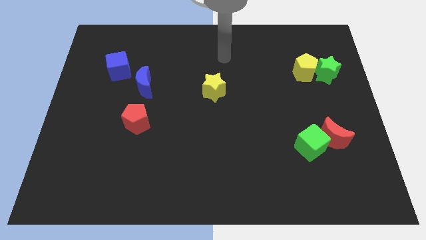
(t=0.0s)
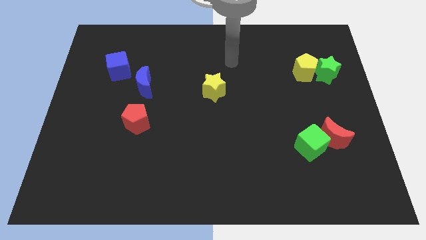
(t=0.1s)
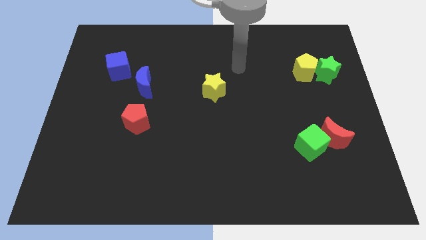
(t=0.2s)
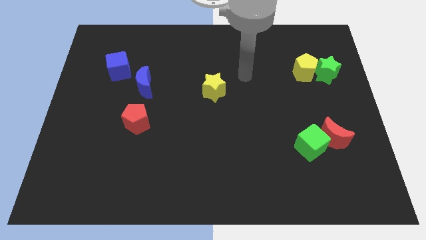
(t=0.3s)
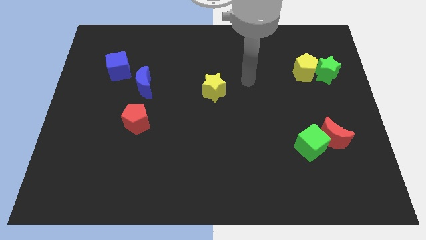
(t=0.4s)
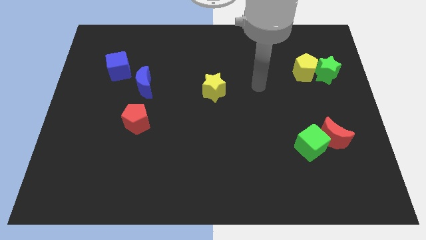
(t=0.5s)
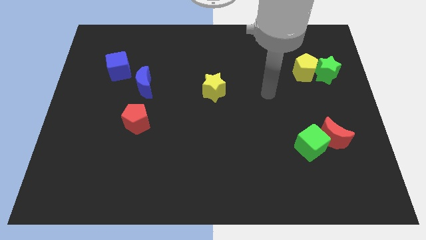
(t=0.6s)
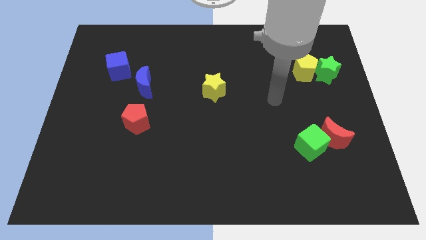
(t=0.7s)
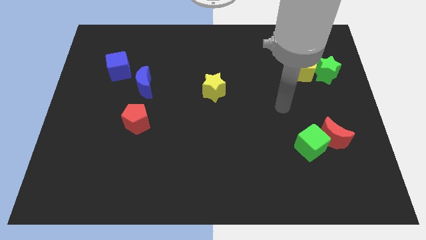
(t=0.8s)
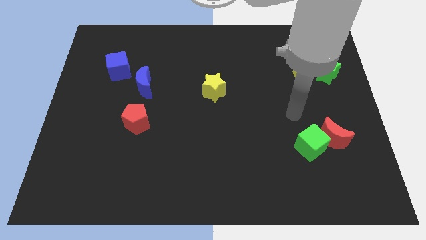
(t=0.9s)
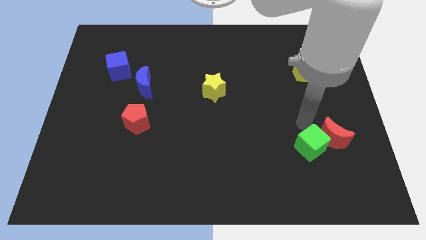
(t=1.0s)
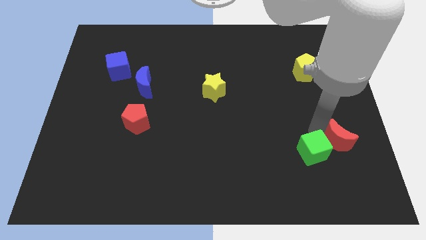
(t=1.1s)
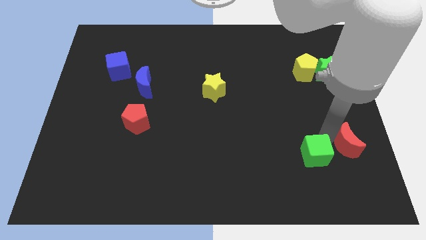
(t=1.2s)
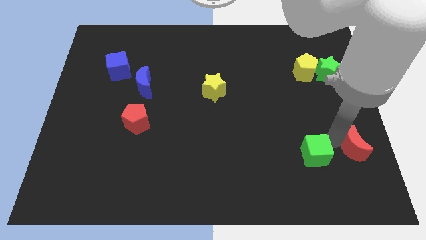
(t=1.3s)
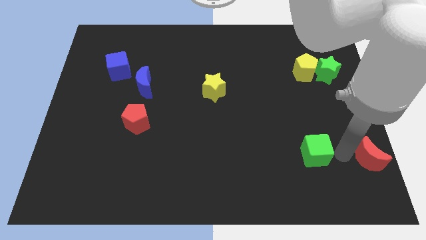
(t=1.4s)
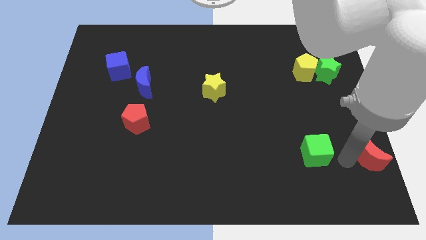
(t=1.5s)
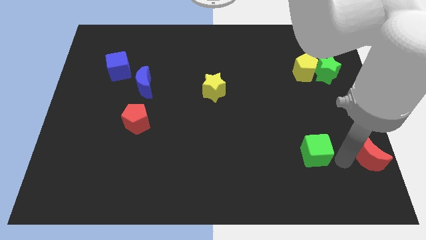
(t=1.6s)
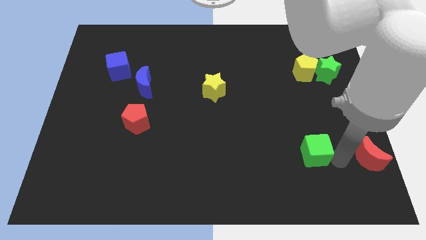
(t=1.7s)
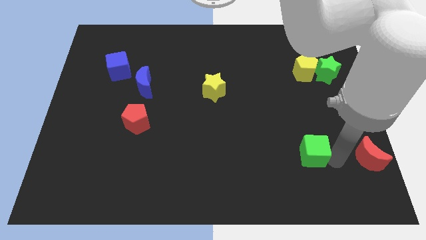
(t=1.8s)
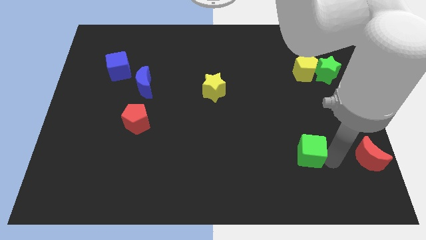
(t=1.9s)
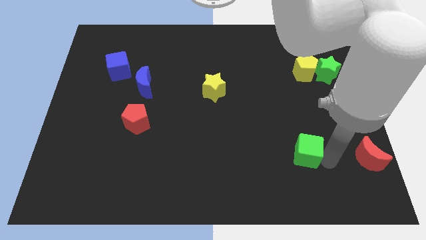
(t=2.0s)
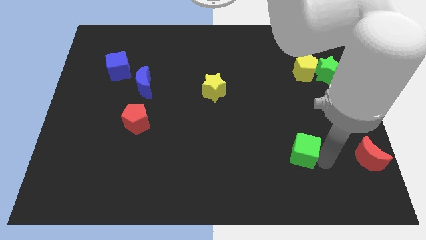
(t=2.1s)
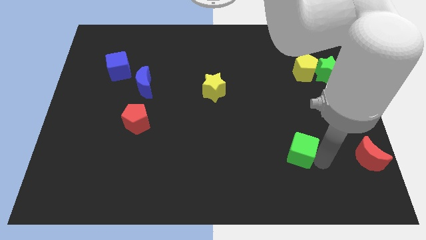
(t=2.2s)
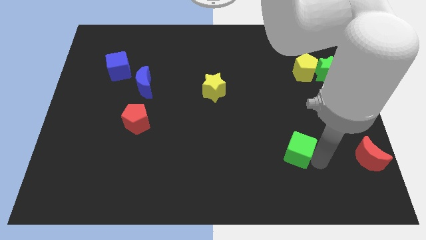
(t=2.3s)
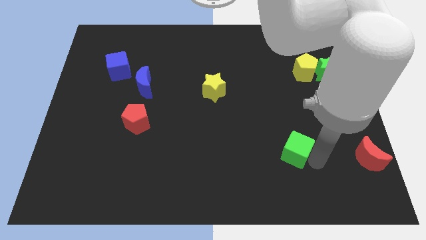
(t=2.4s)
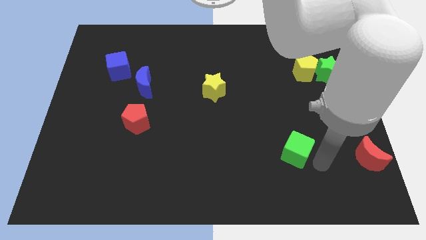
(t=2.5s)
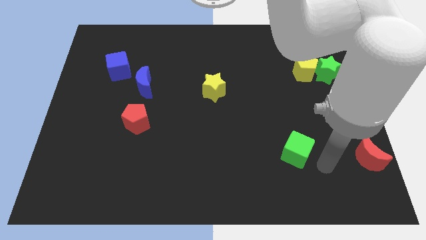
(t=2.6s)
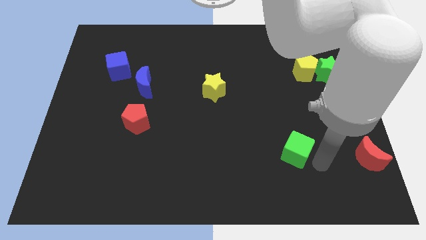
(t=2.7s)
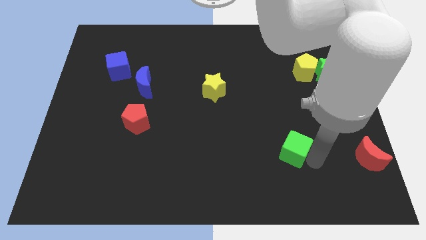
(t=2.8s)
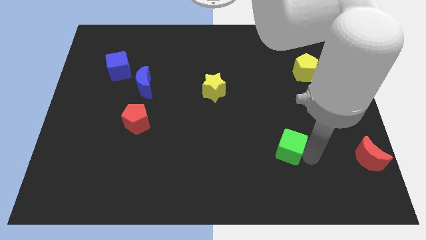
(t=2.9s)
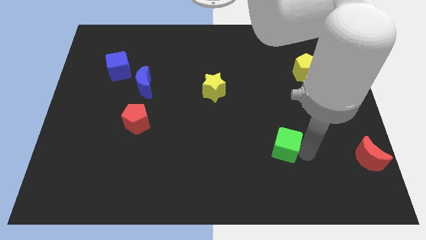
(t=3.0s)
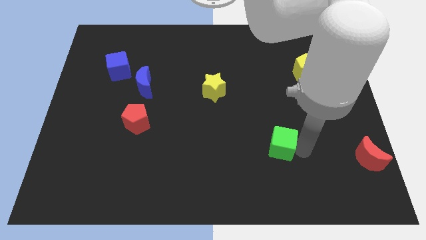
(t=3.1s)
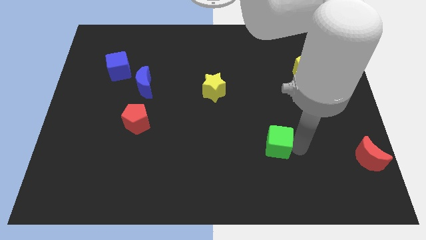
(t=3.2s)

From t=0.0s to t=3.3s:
slightly slide the green cube left

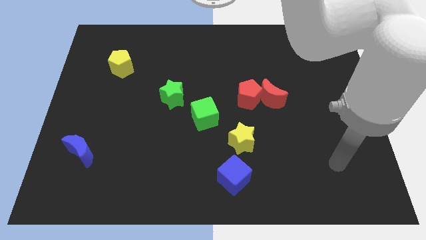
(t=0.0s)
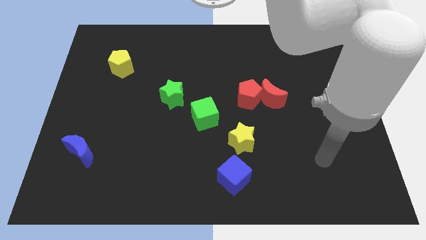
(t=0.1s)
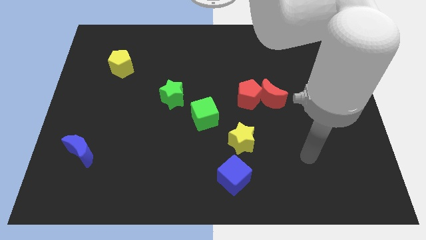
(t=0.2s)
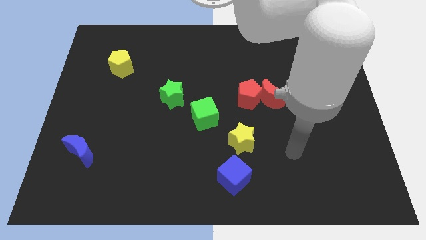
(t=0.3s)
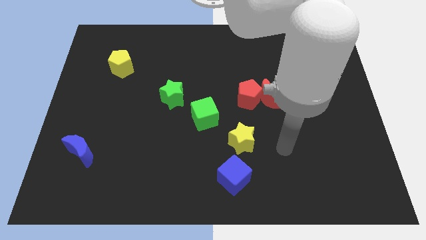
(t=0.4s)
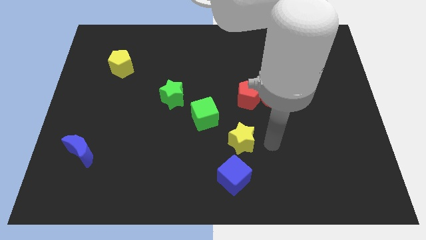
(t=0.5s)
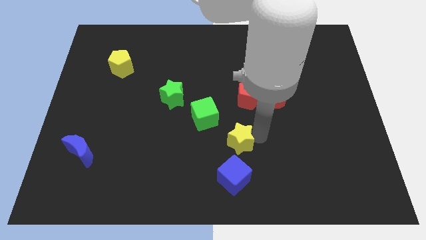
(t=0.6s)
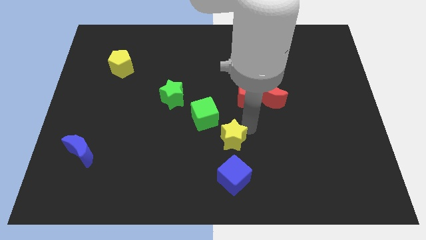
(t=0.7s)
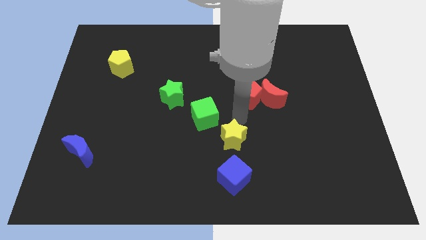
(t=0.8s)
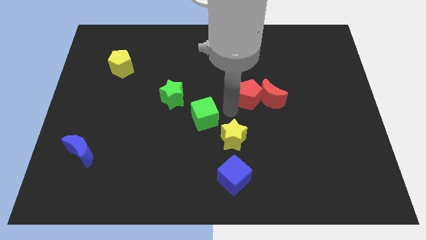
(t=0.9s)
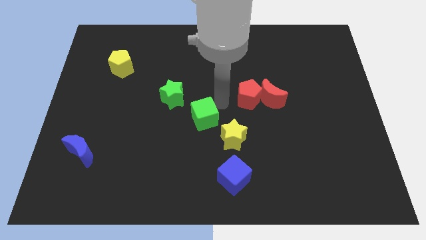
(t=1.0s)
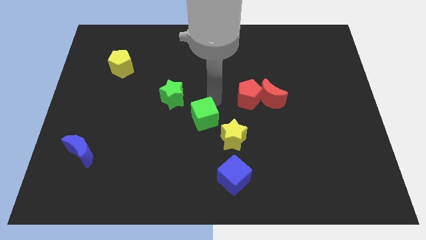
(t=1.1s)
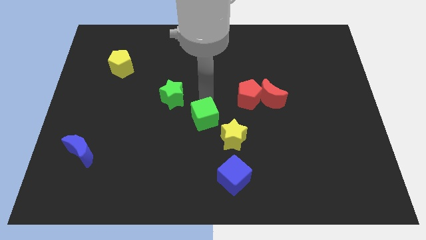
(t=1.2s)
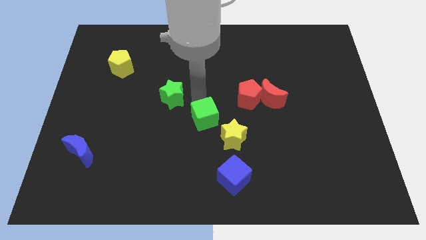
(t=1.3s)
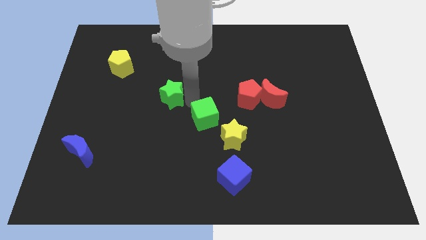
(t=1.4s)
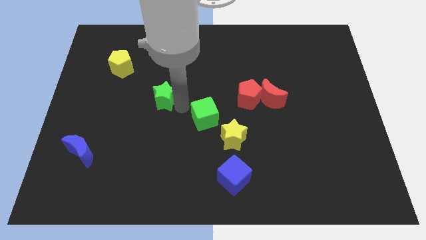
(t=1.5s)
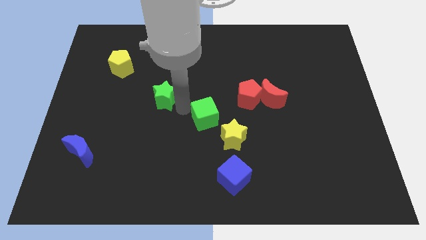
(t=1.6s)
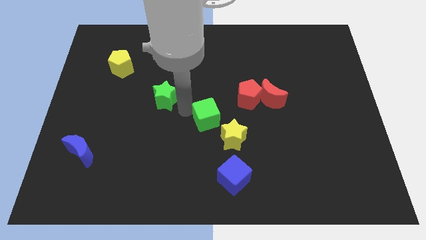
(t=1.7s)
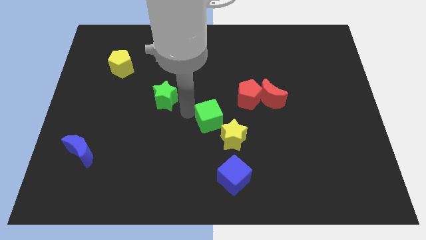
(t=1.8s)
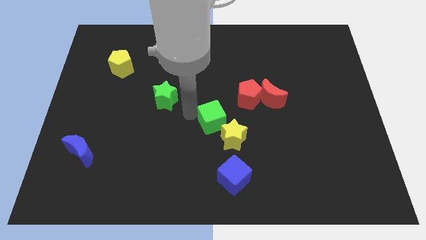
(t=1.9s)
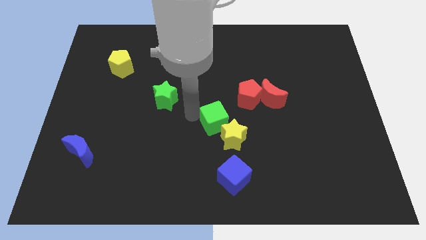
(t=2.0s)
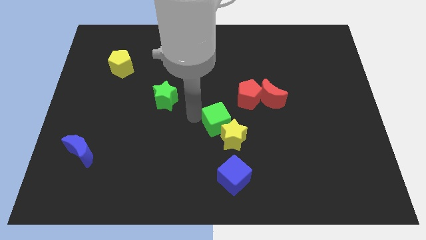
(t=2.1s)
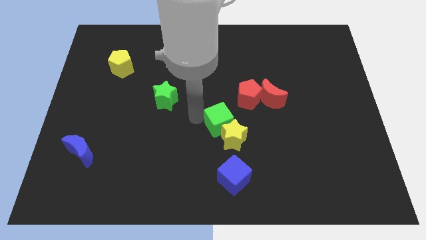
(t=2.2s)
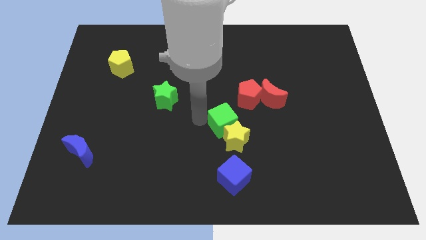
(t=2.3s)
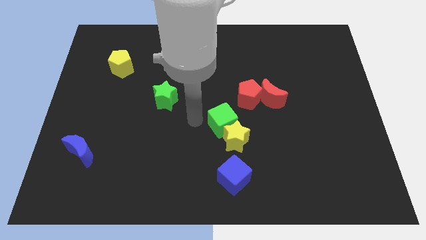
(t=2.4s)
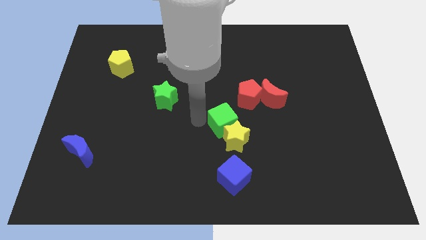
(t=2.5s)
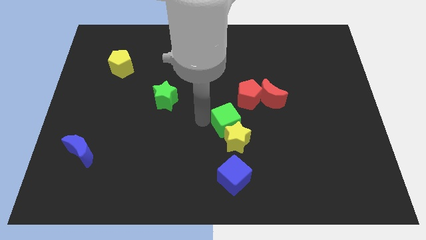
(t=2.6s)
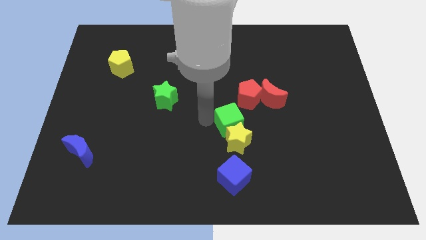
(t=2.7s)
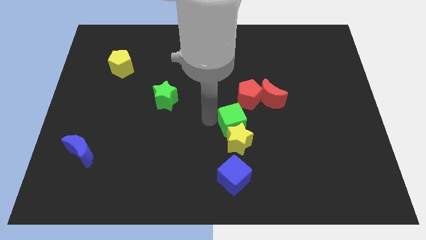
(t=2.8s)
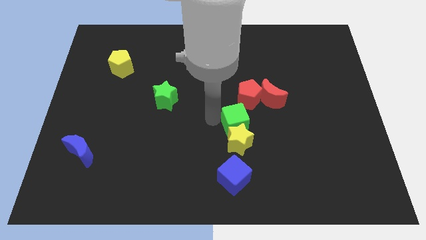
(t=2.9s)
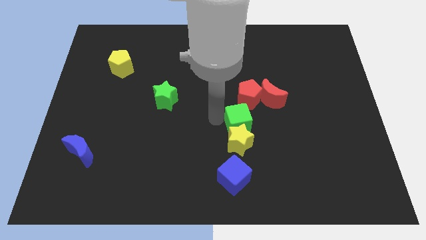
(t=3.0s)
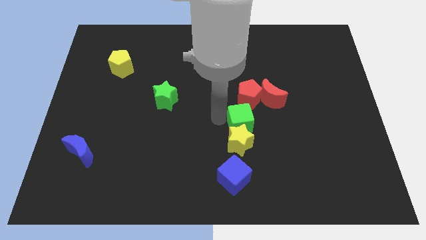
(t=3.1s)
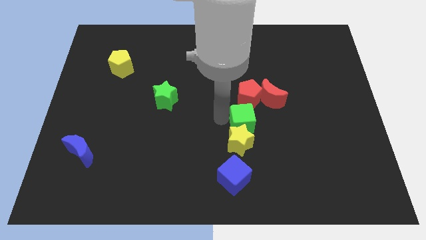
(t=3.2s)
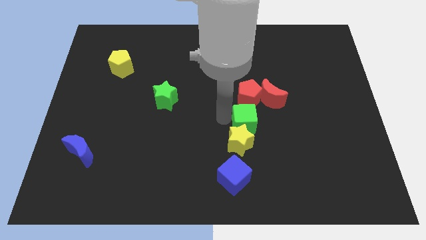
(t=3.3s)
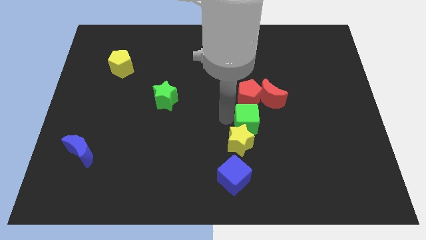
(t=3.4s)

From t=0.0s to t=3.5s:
slightly move the green cube downwards and right

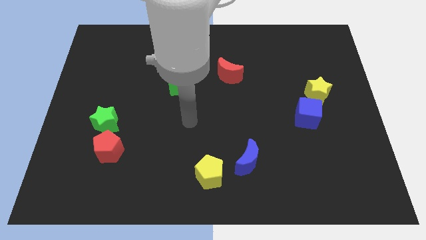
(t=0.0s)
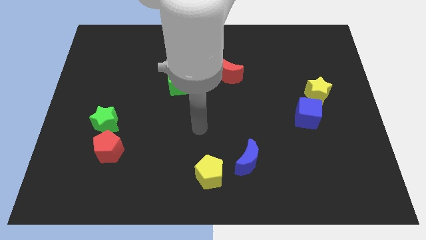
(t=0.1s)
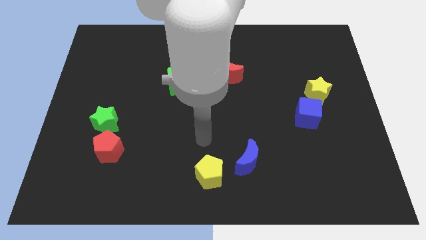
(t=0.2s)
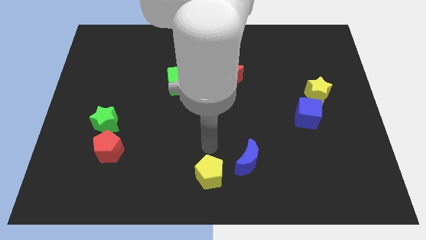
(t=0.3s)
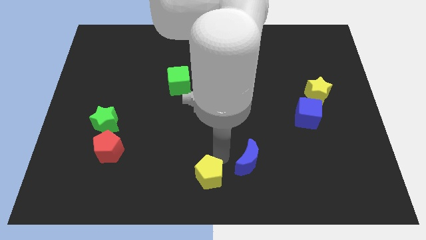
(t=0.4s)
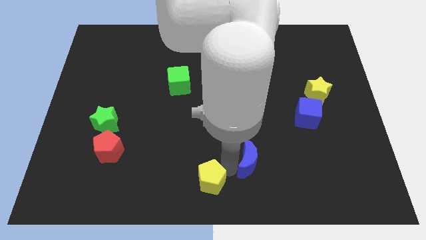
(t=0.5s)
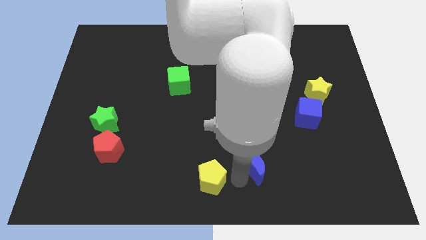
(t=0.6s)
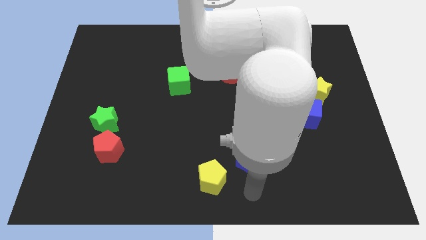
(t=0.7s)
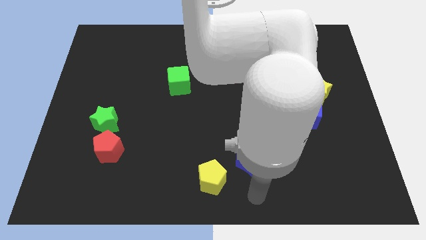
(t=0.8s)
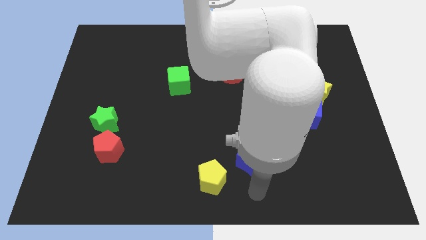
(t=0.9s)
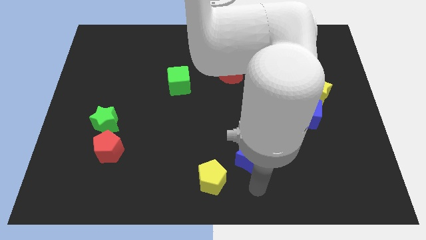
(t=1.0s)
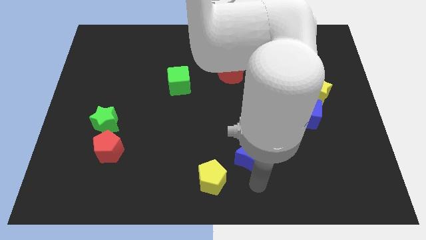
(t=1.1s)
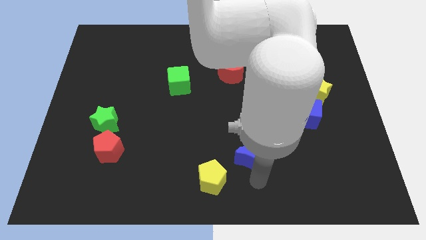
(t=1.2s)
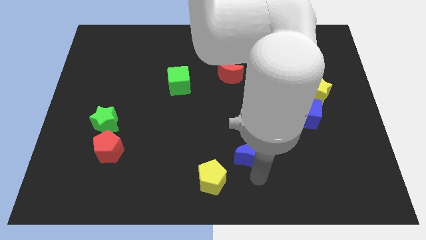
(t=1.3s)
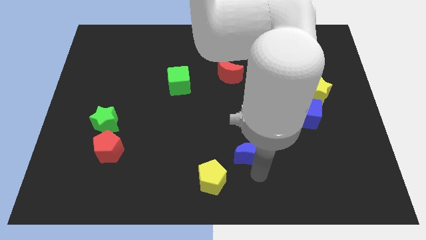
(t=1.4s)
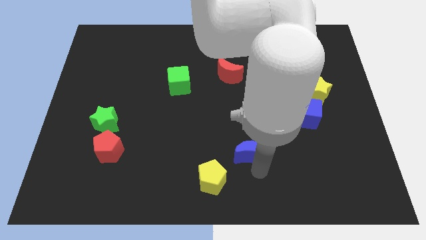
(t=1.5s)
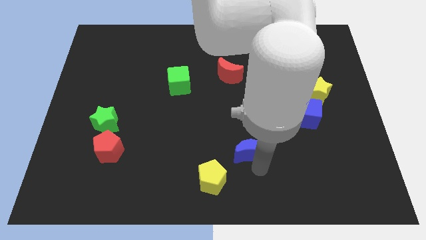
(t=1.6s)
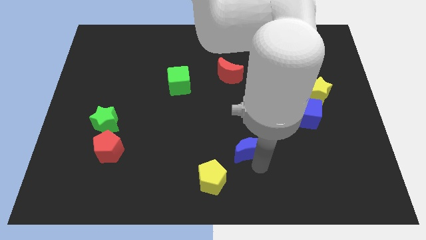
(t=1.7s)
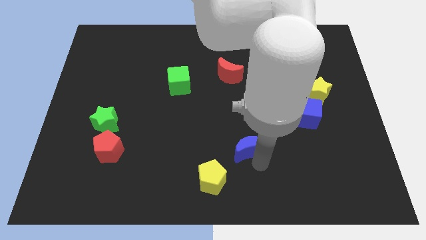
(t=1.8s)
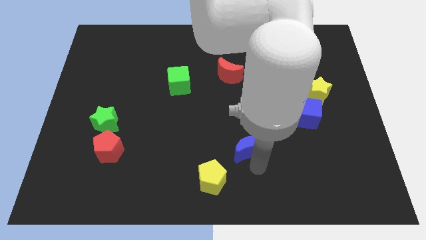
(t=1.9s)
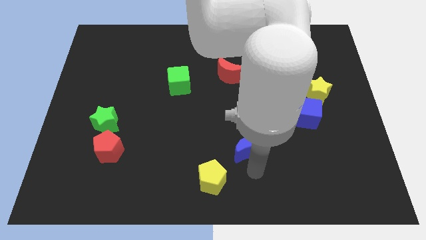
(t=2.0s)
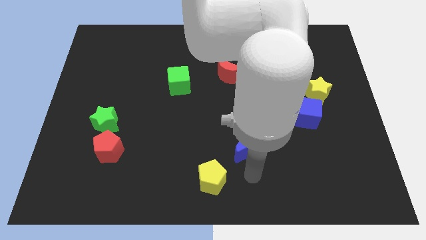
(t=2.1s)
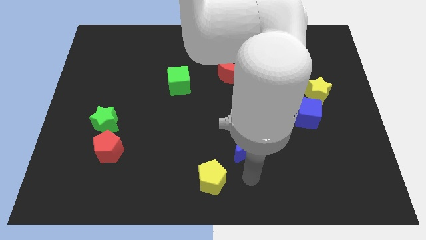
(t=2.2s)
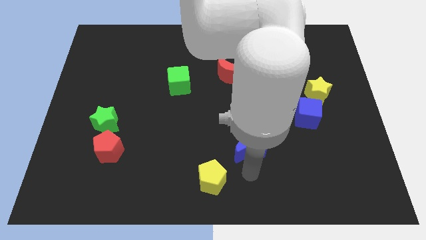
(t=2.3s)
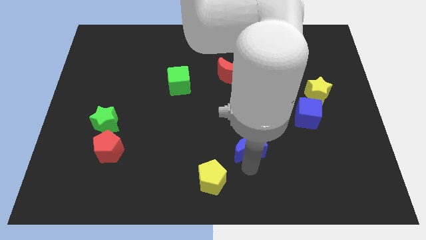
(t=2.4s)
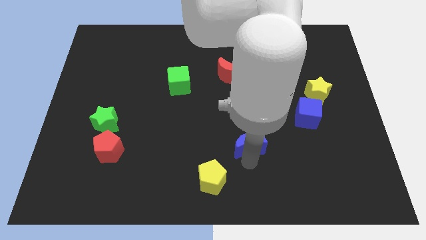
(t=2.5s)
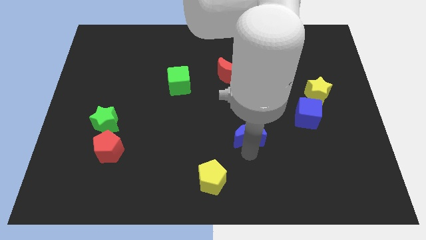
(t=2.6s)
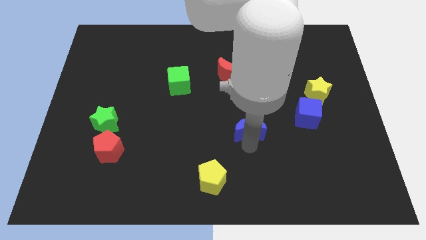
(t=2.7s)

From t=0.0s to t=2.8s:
slightly push the blue moon upwards
